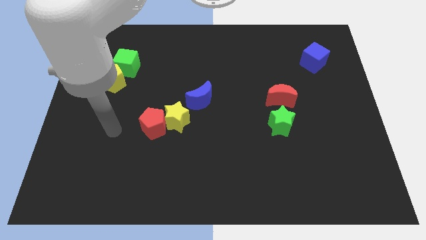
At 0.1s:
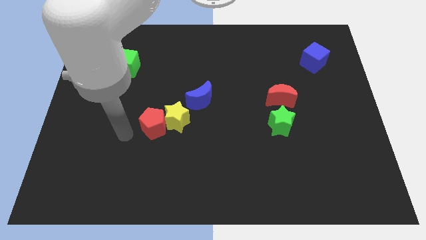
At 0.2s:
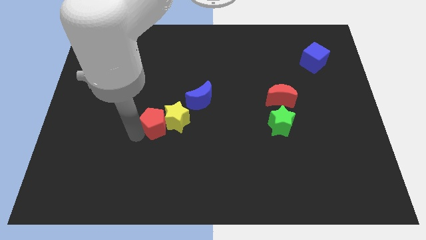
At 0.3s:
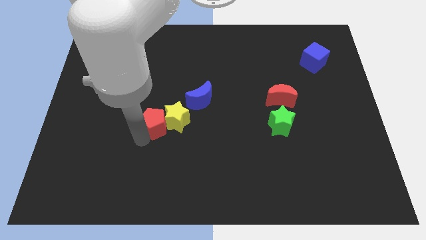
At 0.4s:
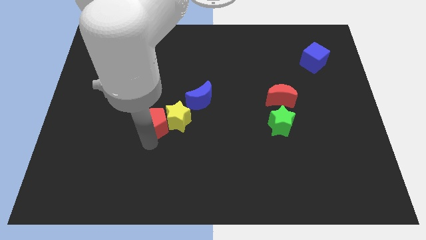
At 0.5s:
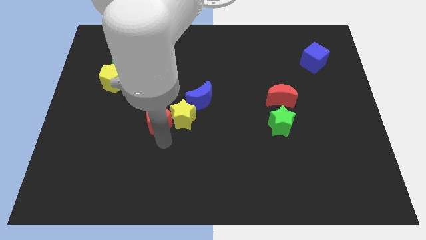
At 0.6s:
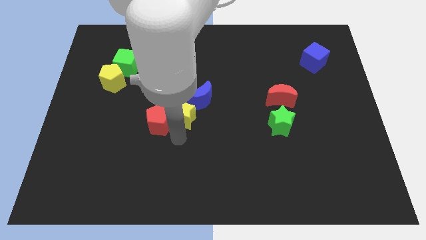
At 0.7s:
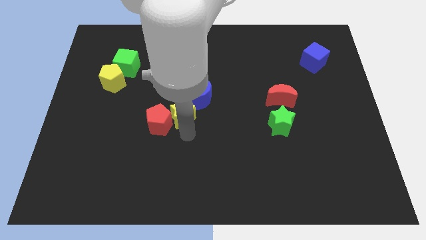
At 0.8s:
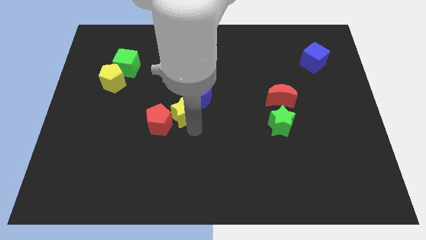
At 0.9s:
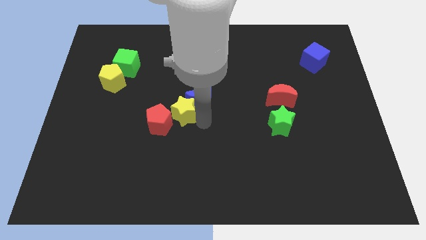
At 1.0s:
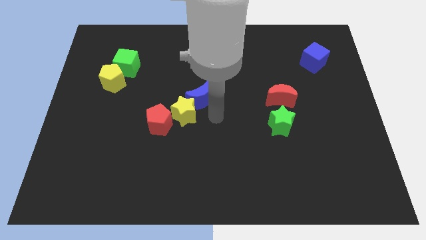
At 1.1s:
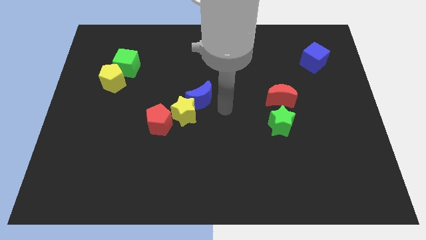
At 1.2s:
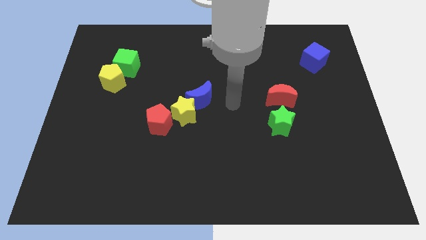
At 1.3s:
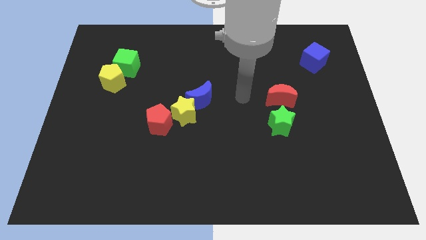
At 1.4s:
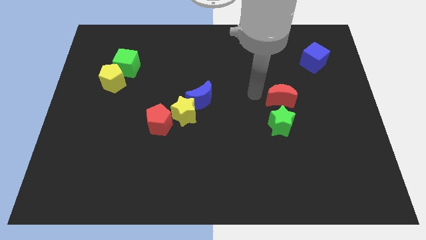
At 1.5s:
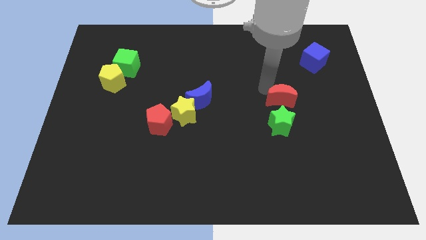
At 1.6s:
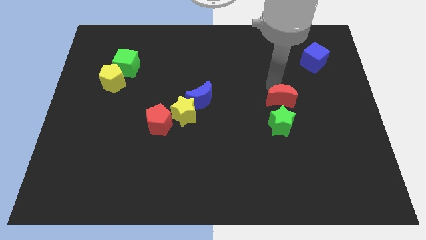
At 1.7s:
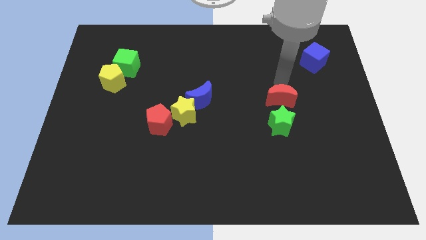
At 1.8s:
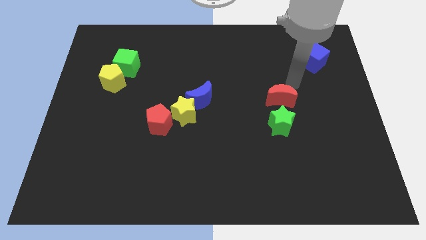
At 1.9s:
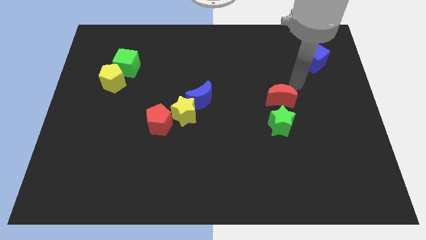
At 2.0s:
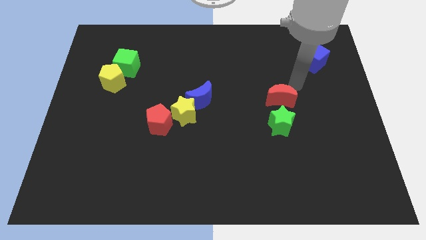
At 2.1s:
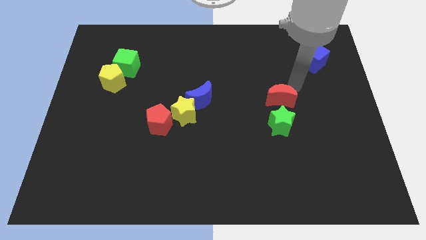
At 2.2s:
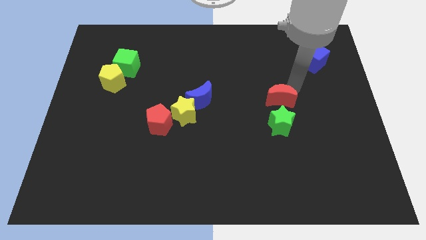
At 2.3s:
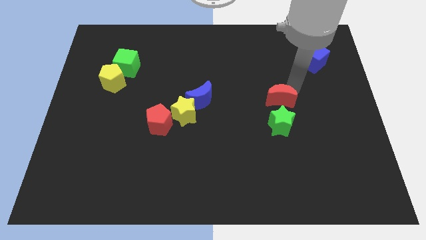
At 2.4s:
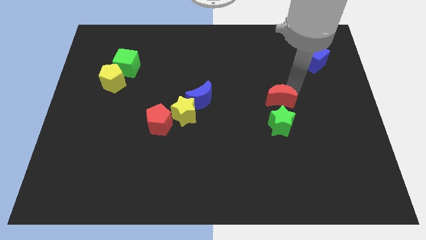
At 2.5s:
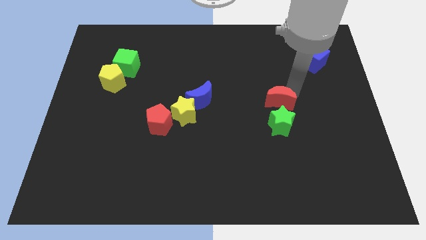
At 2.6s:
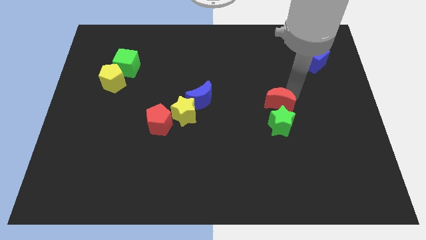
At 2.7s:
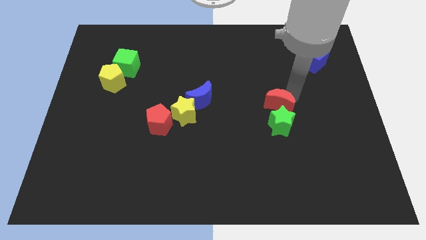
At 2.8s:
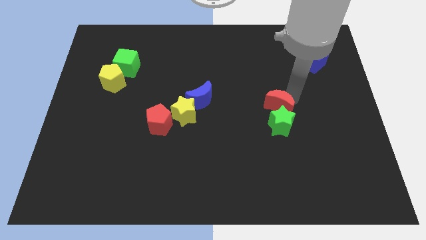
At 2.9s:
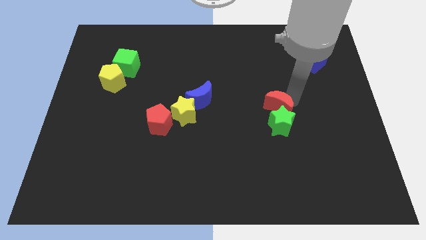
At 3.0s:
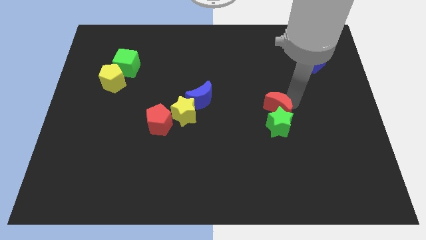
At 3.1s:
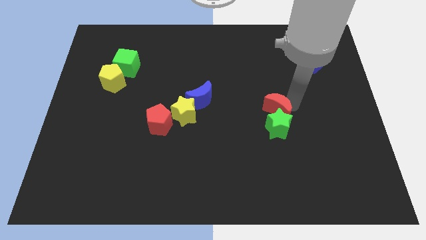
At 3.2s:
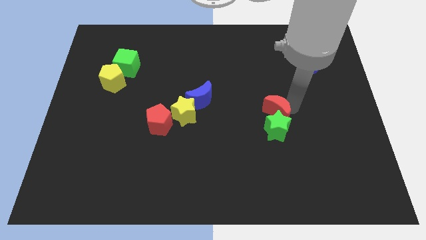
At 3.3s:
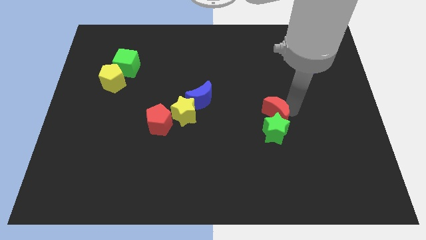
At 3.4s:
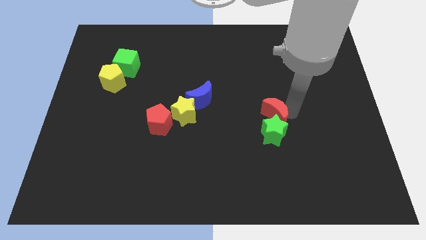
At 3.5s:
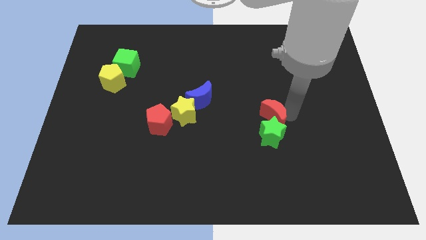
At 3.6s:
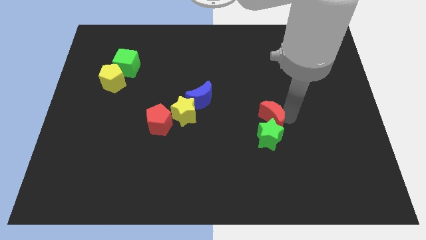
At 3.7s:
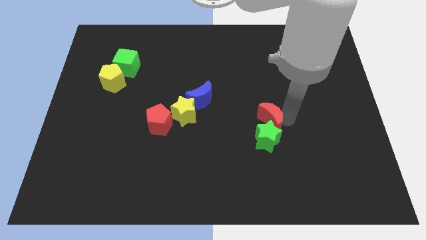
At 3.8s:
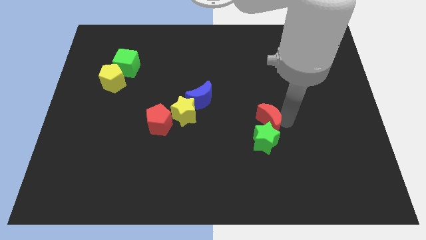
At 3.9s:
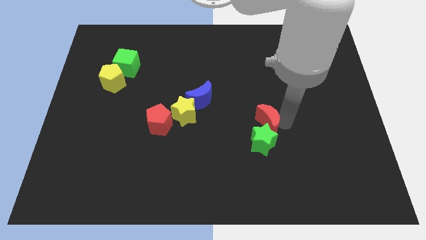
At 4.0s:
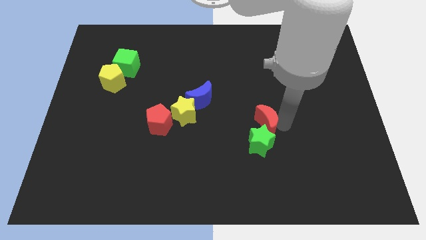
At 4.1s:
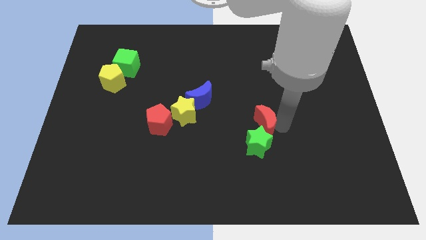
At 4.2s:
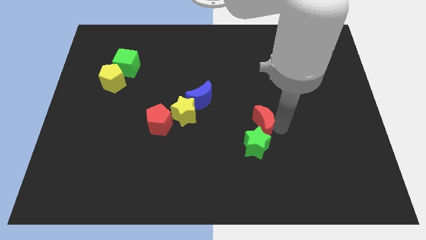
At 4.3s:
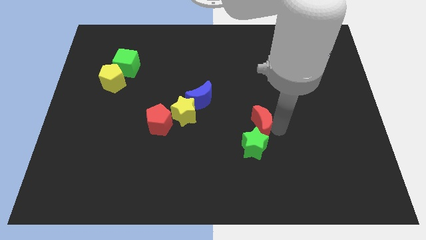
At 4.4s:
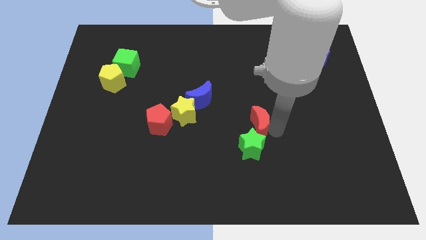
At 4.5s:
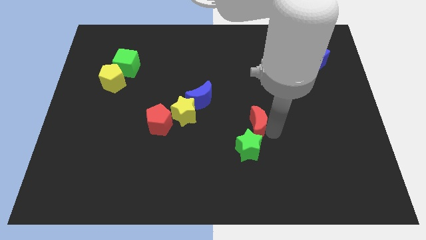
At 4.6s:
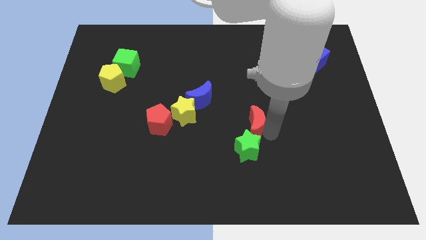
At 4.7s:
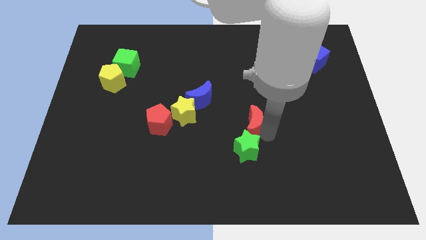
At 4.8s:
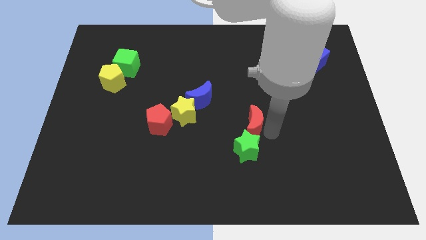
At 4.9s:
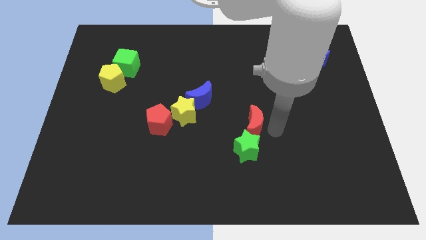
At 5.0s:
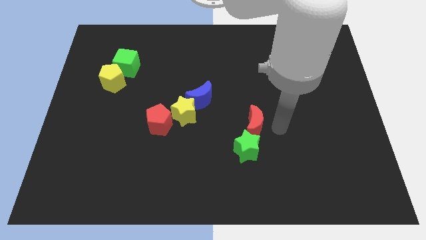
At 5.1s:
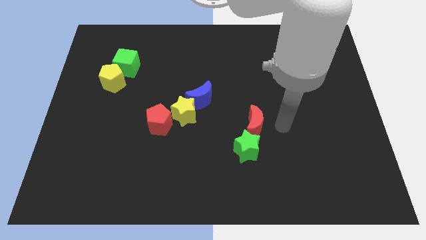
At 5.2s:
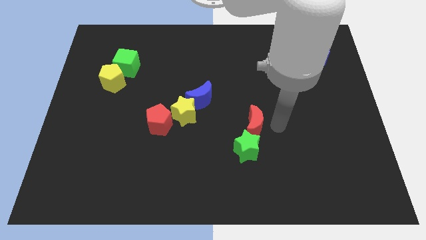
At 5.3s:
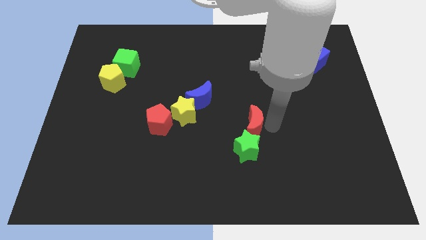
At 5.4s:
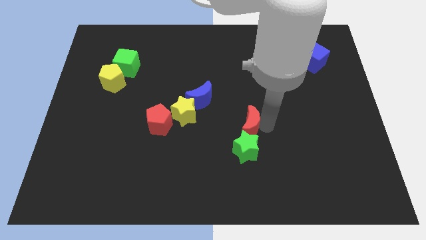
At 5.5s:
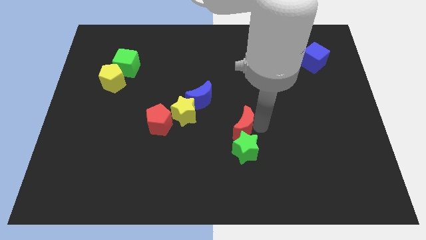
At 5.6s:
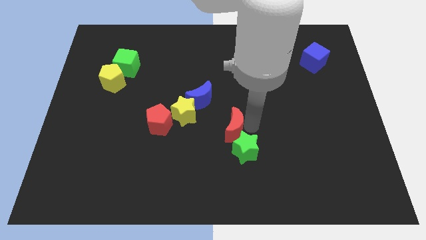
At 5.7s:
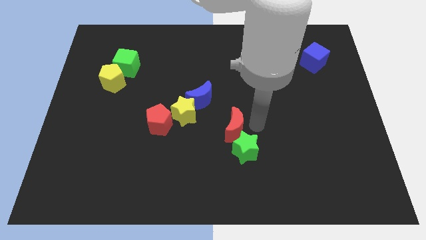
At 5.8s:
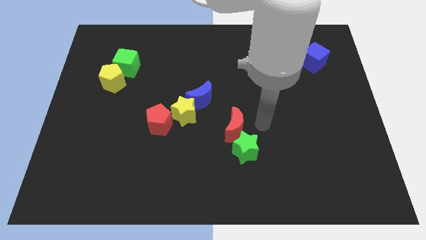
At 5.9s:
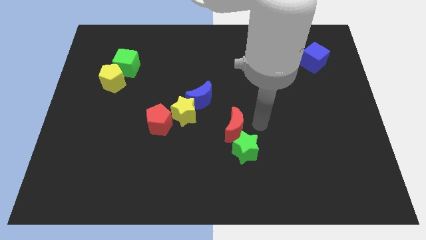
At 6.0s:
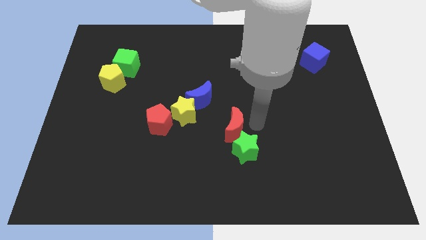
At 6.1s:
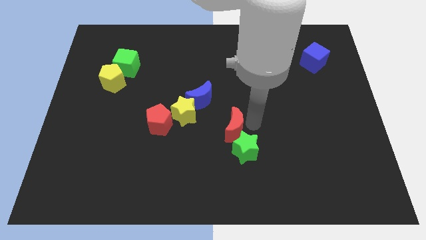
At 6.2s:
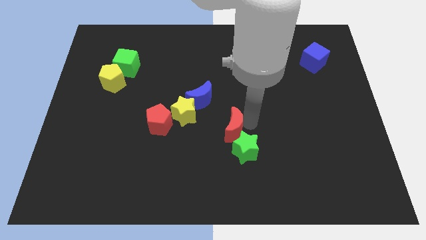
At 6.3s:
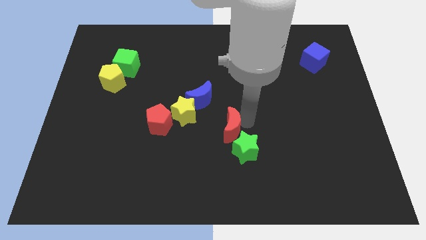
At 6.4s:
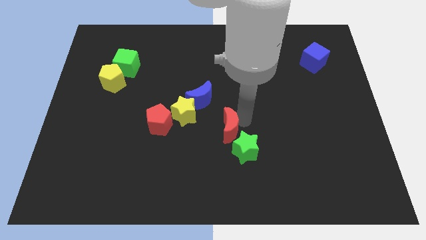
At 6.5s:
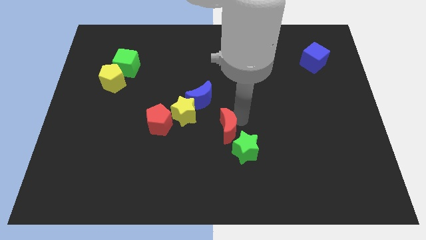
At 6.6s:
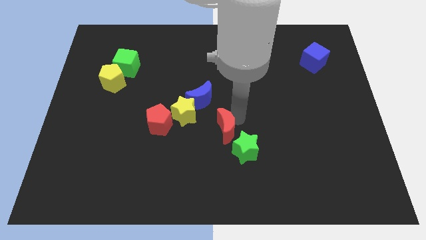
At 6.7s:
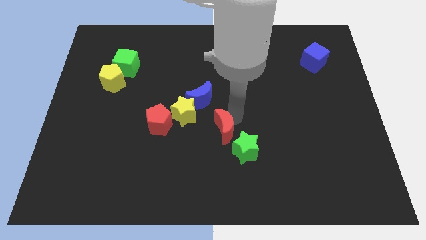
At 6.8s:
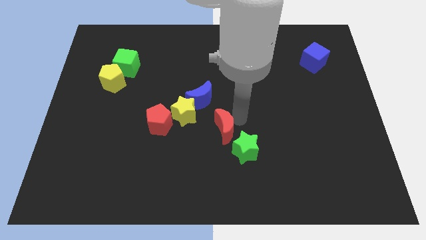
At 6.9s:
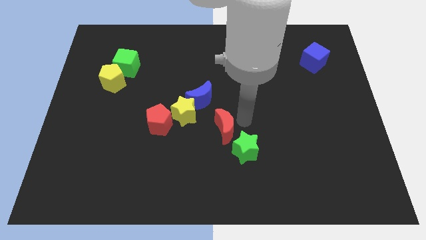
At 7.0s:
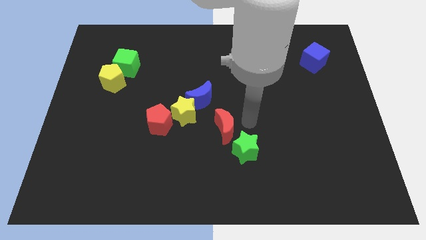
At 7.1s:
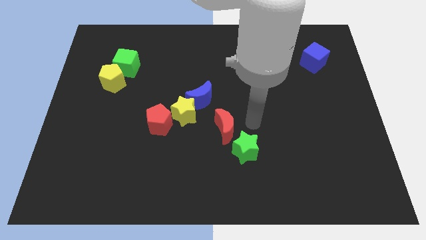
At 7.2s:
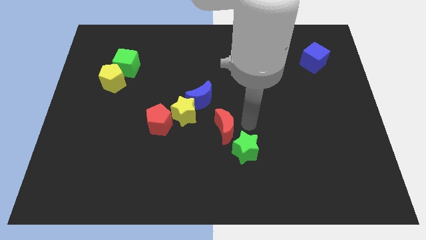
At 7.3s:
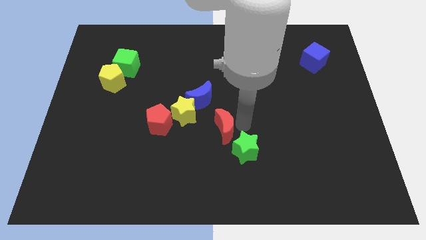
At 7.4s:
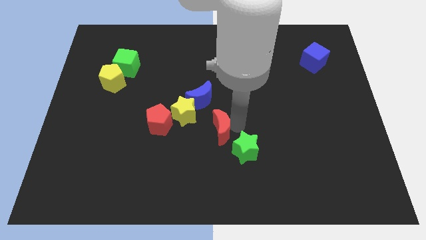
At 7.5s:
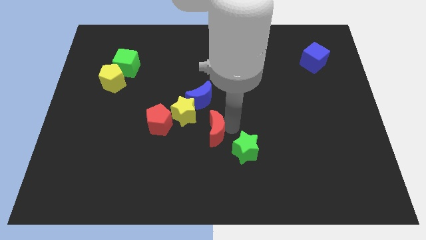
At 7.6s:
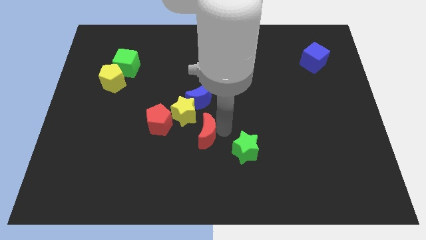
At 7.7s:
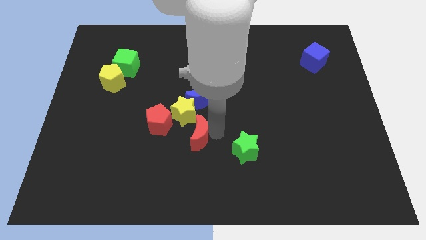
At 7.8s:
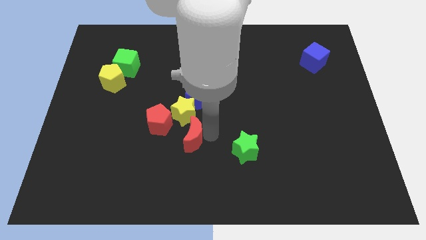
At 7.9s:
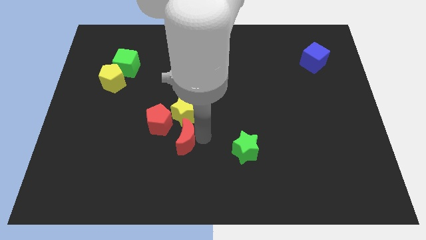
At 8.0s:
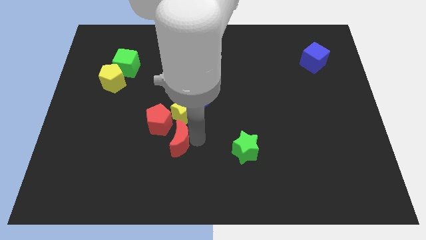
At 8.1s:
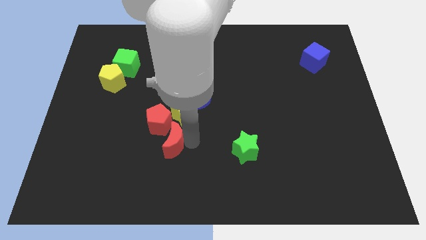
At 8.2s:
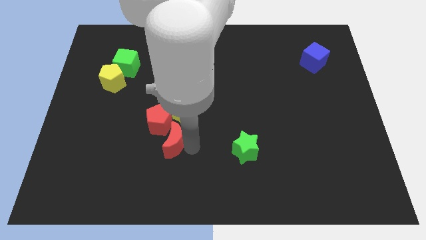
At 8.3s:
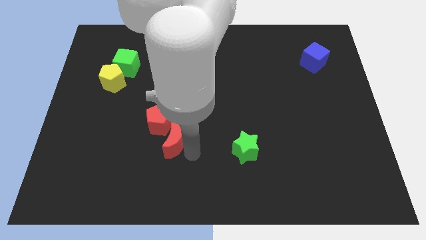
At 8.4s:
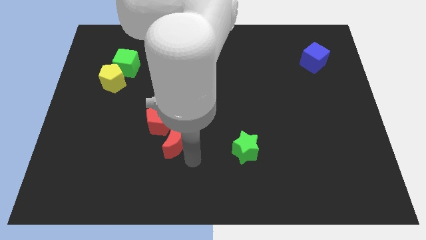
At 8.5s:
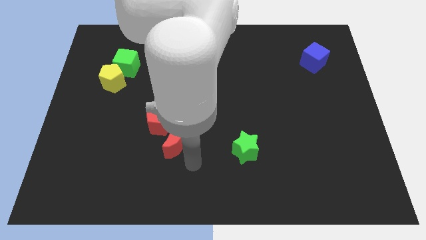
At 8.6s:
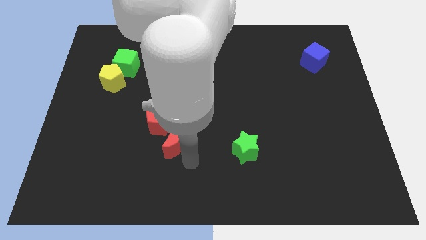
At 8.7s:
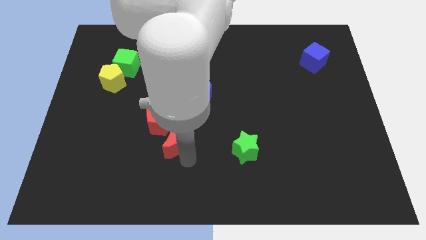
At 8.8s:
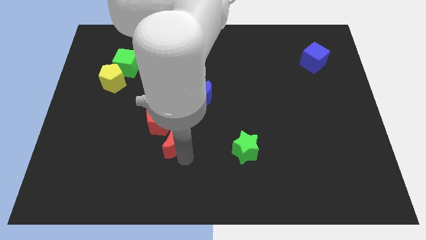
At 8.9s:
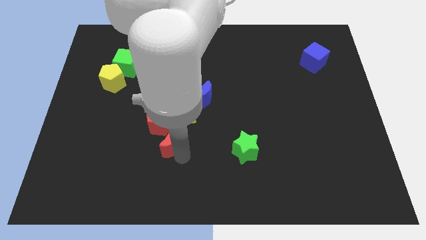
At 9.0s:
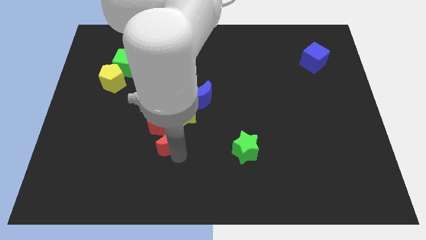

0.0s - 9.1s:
move the red moon next to the red pentagon
